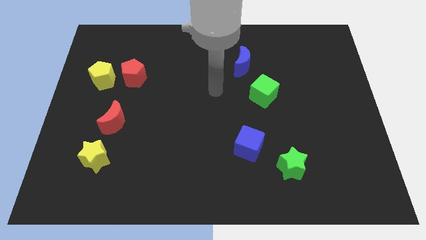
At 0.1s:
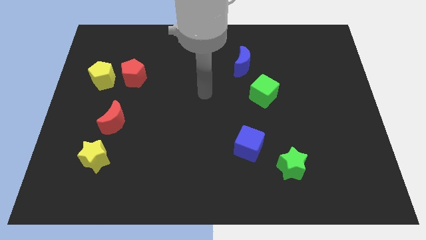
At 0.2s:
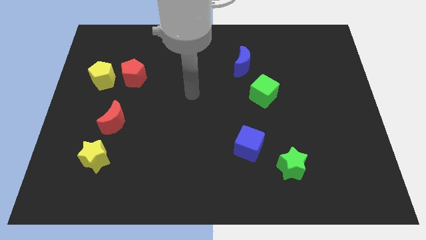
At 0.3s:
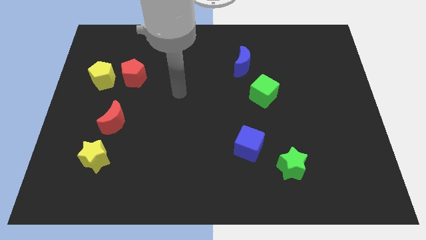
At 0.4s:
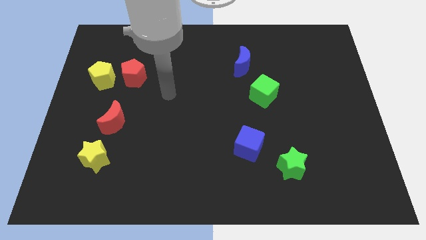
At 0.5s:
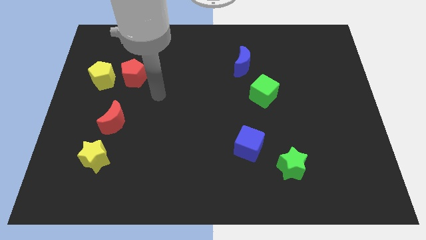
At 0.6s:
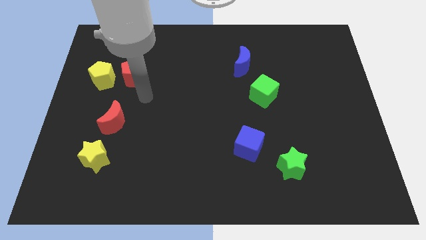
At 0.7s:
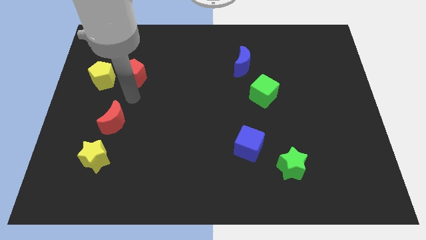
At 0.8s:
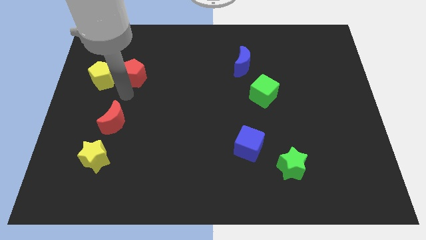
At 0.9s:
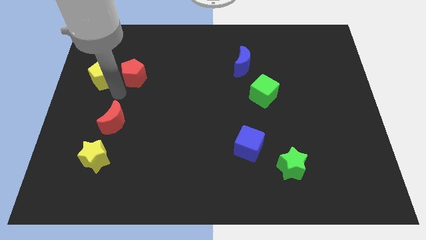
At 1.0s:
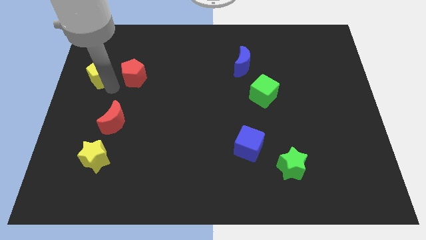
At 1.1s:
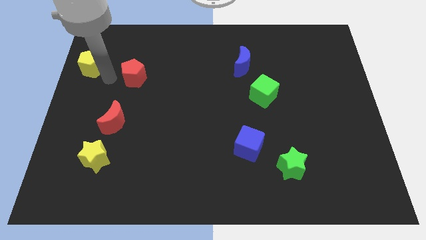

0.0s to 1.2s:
separate the red pentagon from the yellow pentagon

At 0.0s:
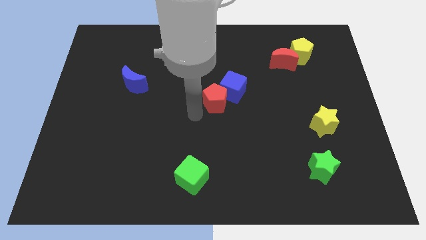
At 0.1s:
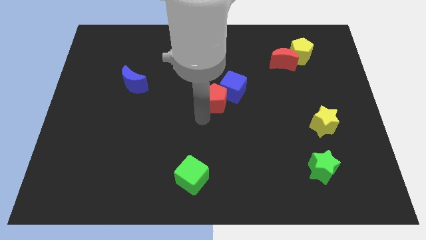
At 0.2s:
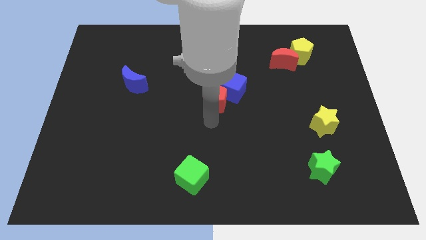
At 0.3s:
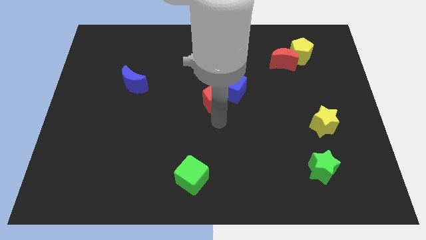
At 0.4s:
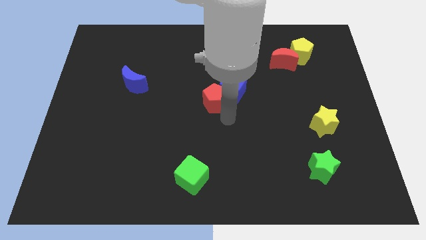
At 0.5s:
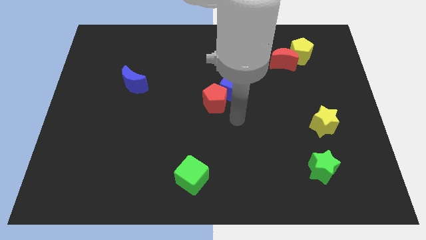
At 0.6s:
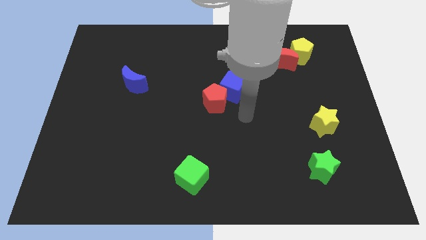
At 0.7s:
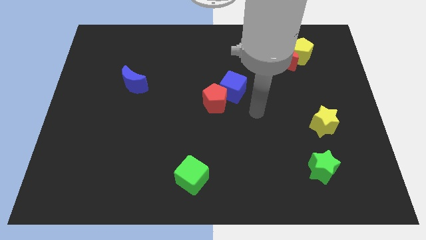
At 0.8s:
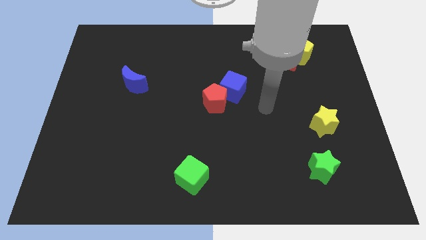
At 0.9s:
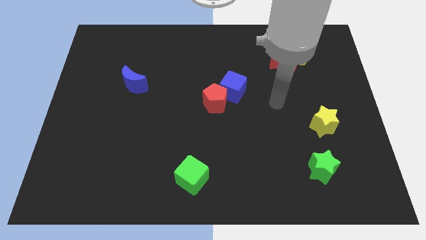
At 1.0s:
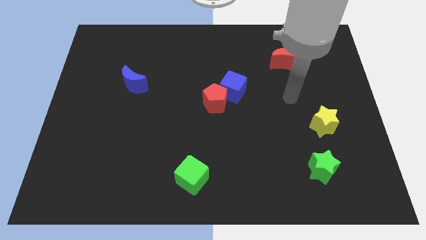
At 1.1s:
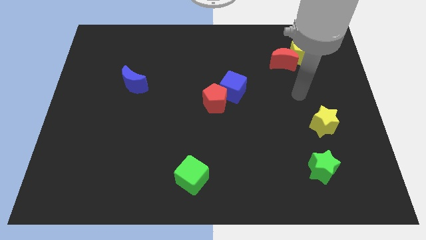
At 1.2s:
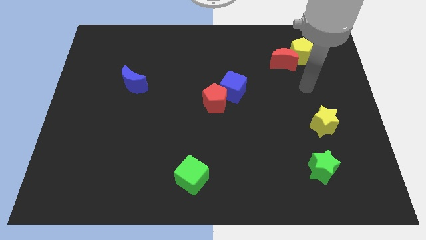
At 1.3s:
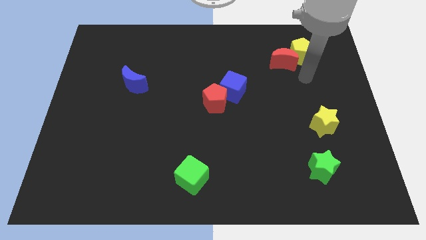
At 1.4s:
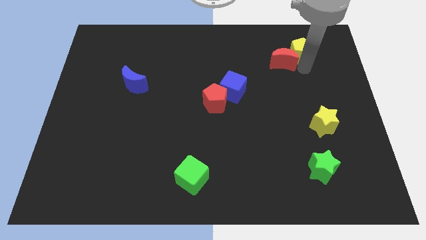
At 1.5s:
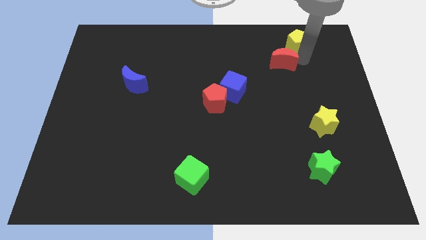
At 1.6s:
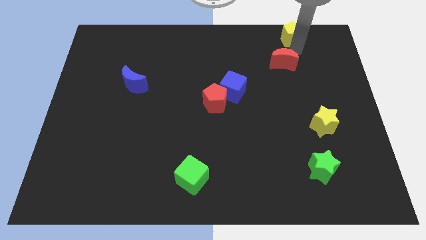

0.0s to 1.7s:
pull the red moon apart from the yellow pentagon

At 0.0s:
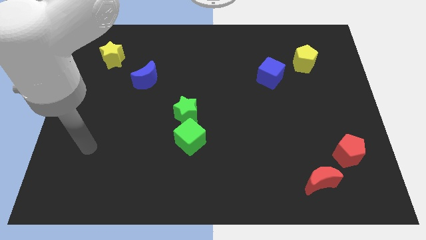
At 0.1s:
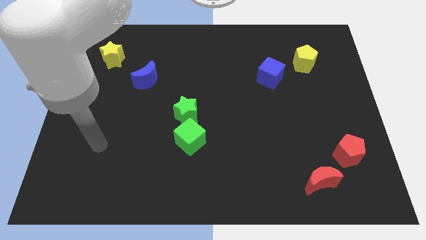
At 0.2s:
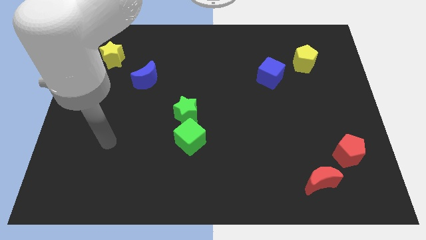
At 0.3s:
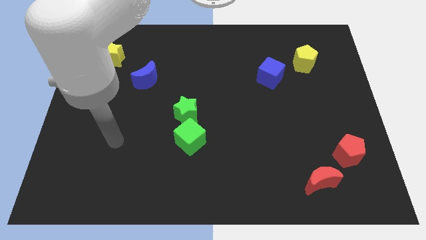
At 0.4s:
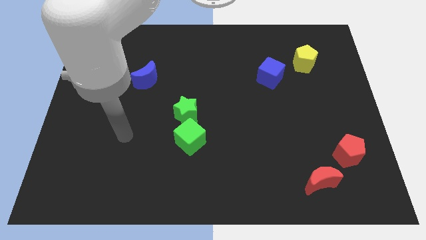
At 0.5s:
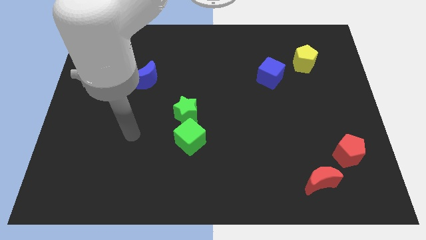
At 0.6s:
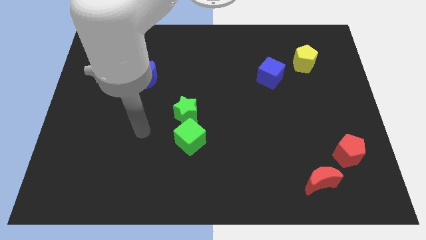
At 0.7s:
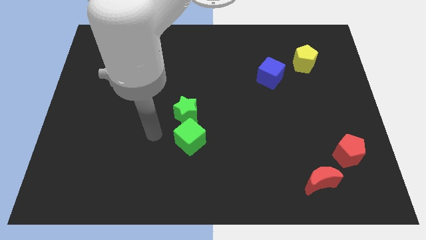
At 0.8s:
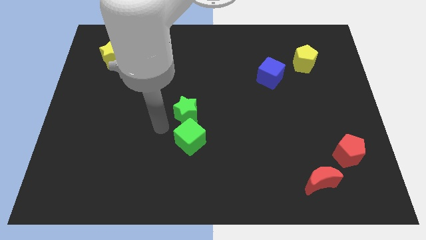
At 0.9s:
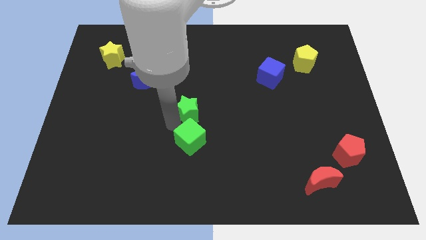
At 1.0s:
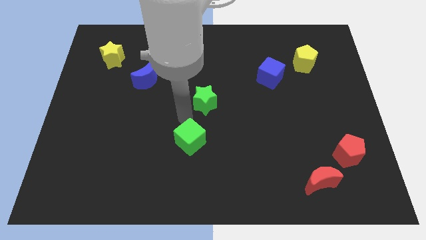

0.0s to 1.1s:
move the green cube away from the green star

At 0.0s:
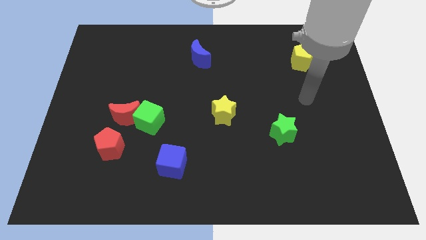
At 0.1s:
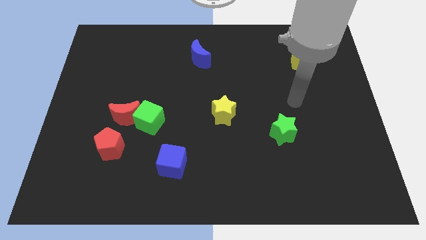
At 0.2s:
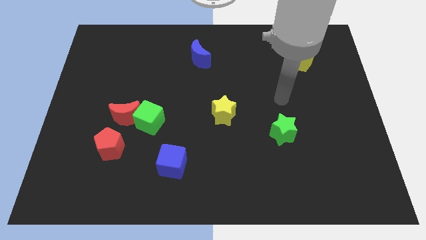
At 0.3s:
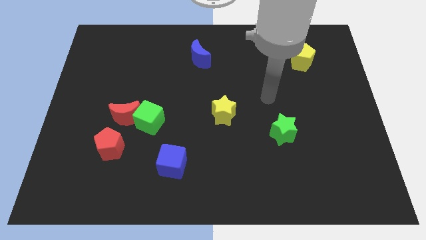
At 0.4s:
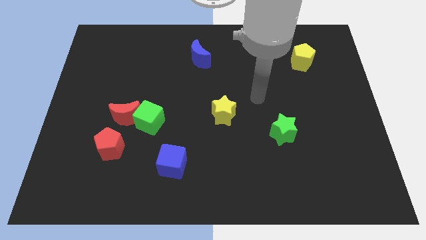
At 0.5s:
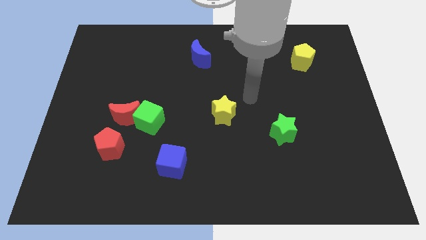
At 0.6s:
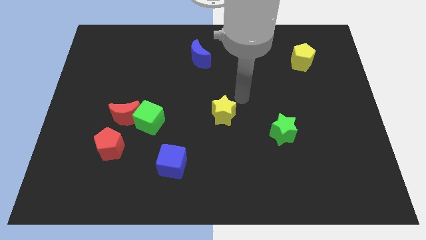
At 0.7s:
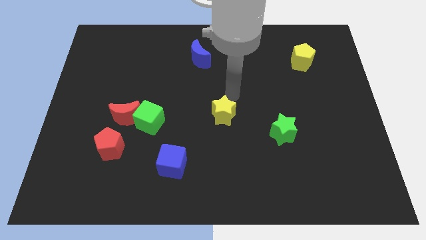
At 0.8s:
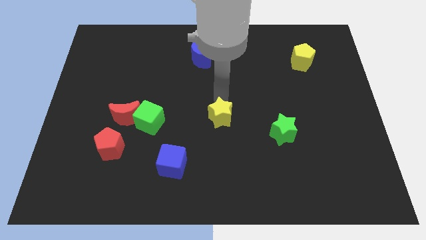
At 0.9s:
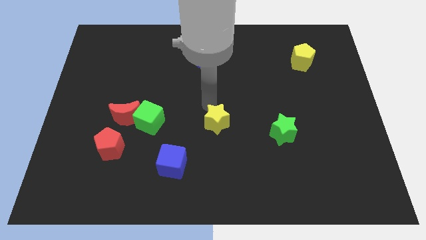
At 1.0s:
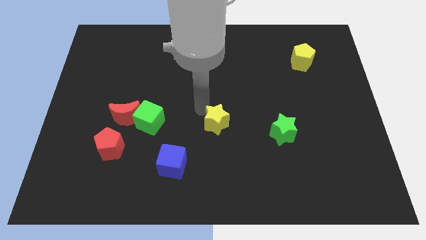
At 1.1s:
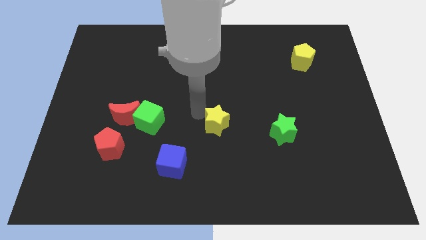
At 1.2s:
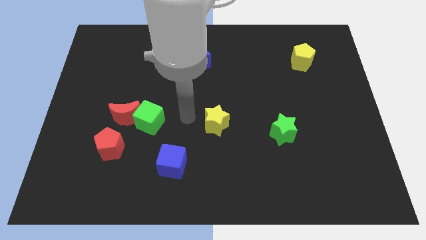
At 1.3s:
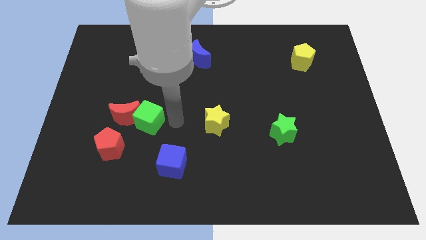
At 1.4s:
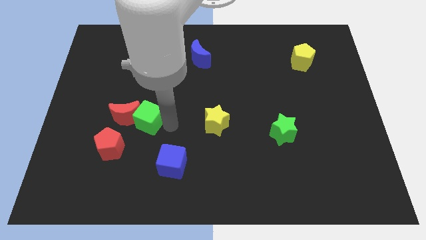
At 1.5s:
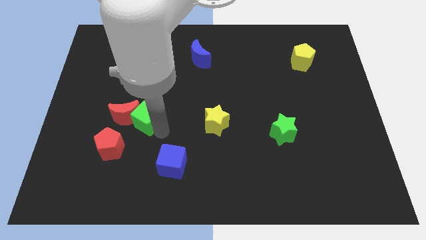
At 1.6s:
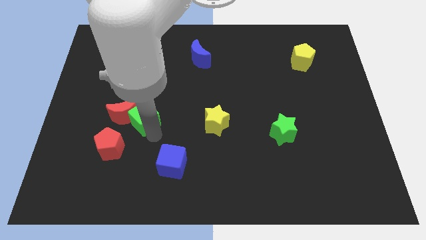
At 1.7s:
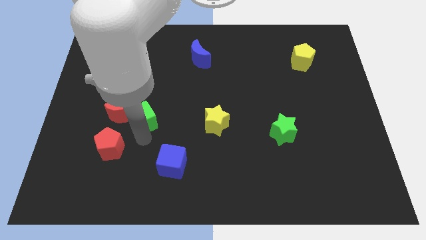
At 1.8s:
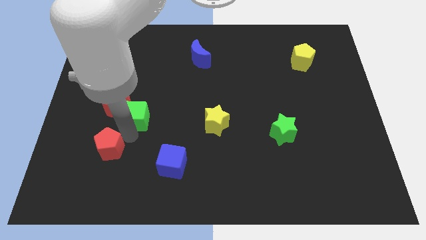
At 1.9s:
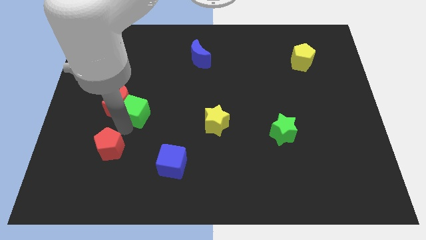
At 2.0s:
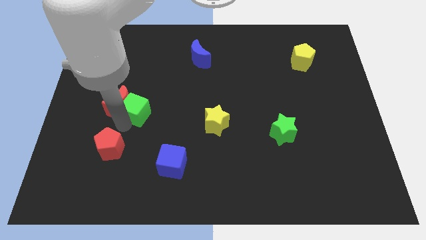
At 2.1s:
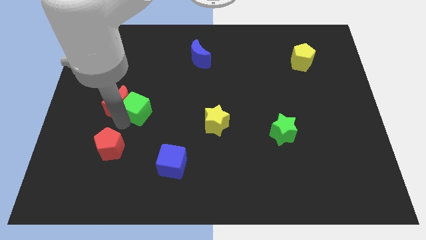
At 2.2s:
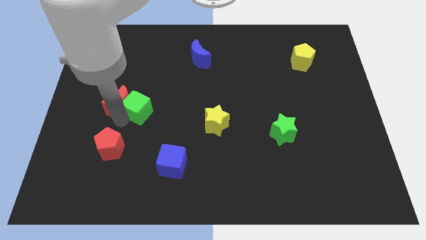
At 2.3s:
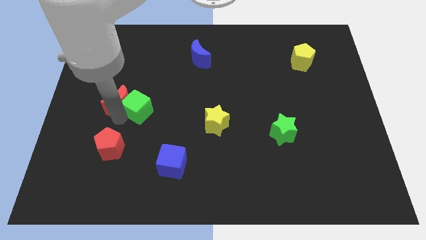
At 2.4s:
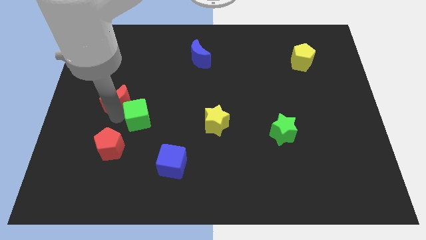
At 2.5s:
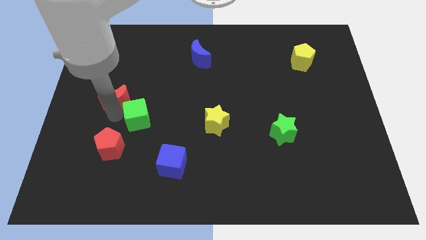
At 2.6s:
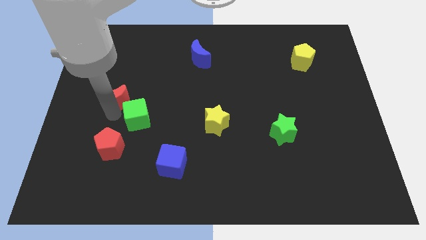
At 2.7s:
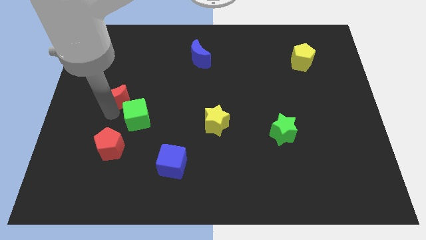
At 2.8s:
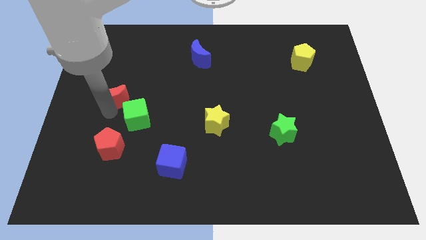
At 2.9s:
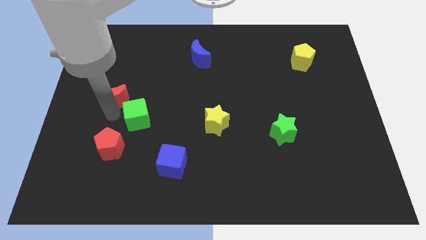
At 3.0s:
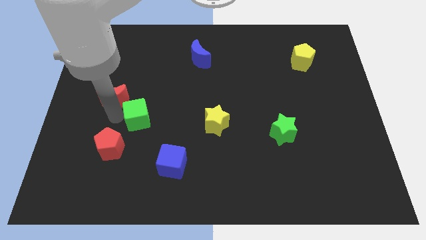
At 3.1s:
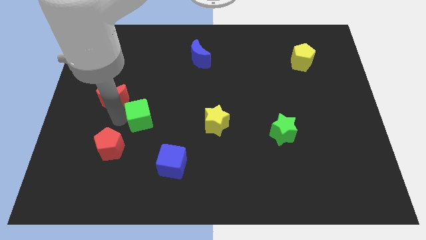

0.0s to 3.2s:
separate the red moon from the green cube and red pentagon

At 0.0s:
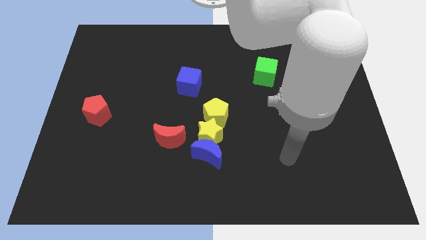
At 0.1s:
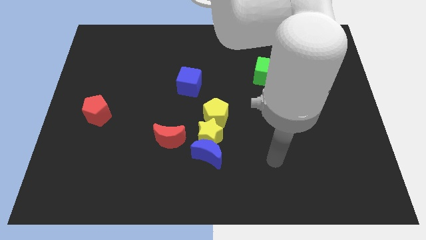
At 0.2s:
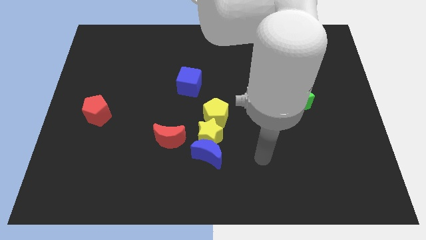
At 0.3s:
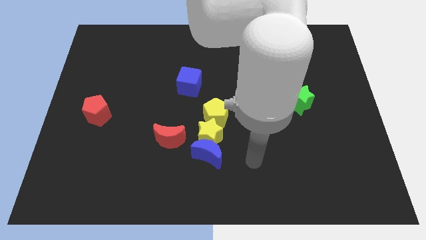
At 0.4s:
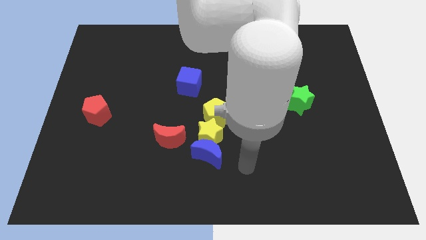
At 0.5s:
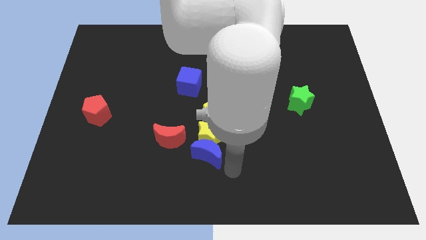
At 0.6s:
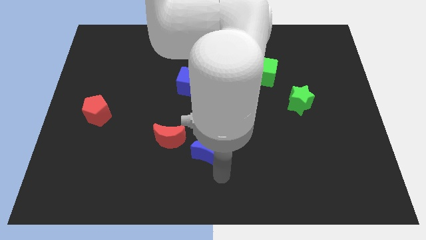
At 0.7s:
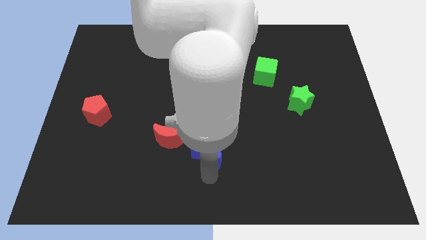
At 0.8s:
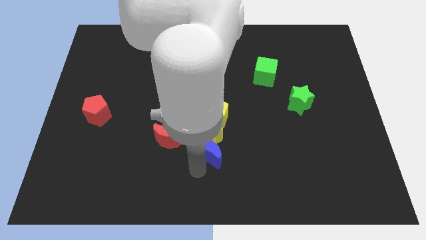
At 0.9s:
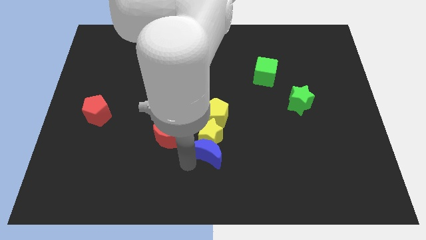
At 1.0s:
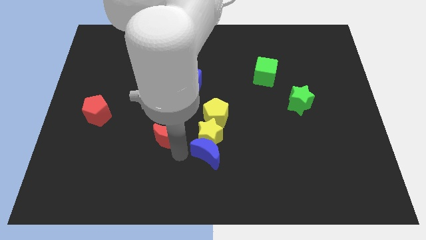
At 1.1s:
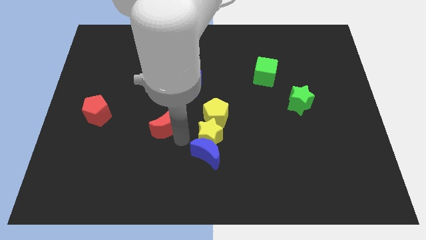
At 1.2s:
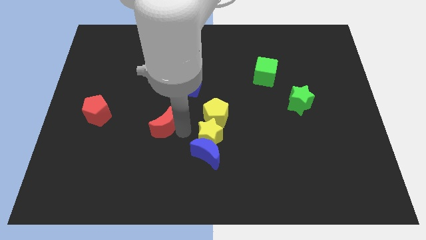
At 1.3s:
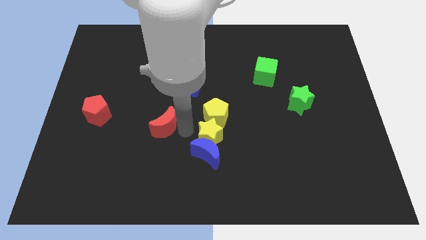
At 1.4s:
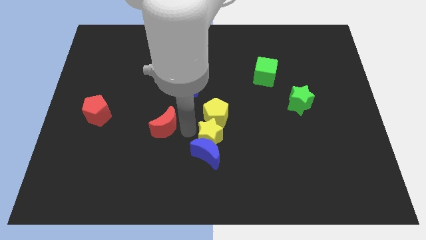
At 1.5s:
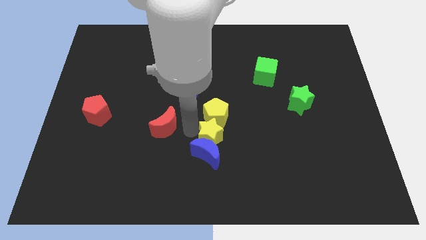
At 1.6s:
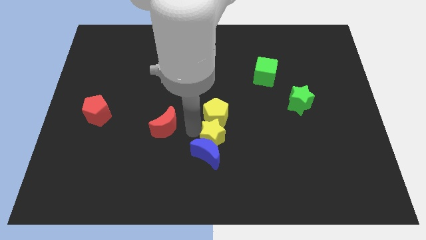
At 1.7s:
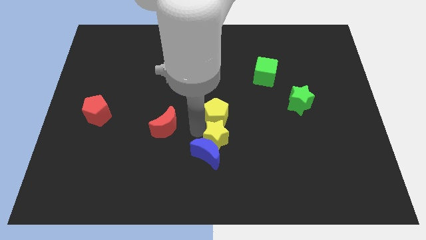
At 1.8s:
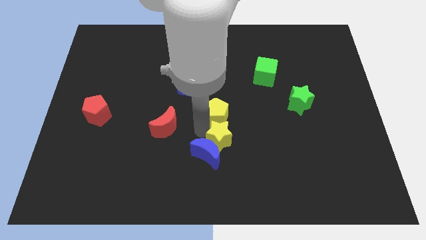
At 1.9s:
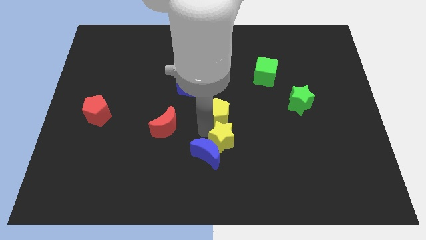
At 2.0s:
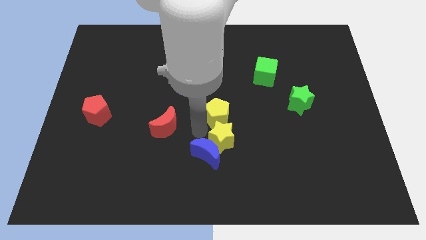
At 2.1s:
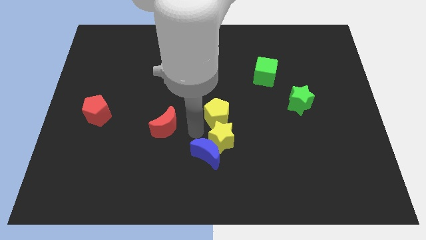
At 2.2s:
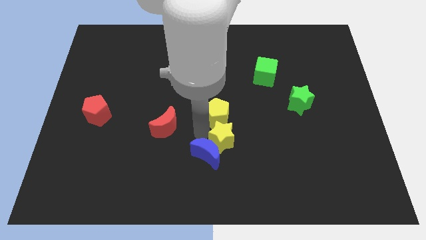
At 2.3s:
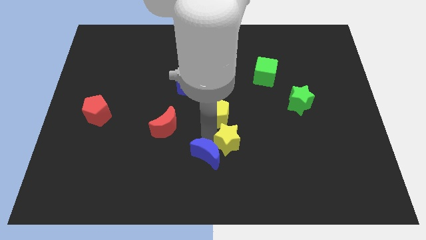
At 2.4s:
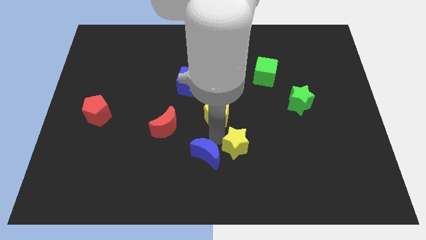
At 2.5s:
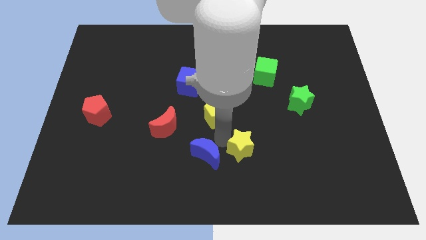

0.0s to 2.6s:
move the yellow star away from the blue moon, yellow pentagon, and red moon
